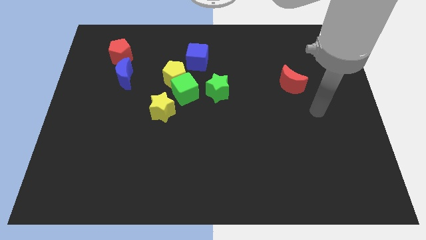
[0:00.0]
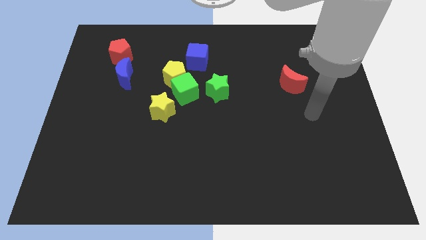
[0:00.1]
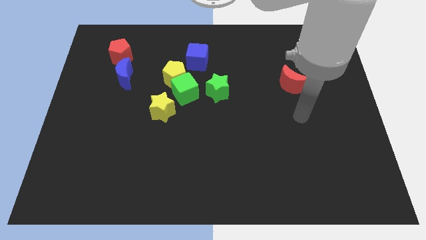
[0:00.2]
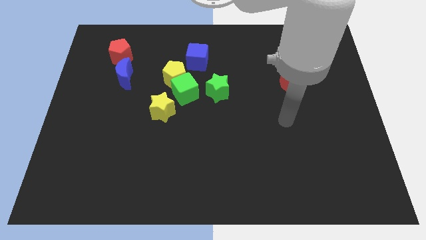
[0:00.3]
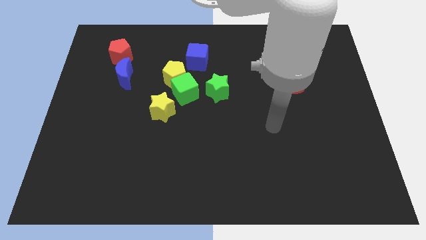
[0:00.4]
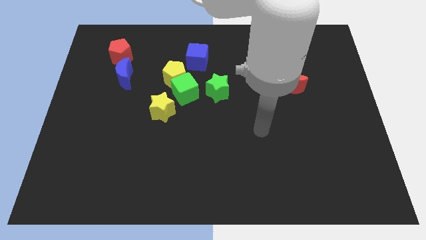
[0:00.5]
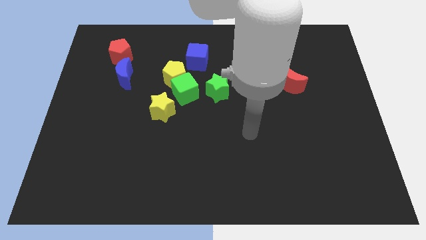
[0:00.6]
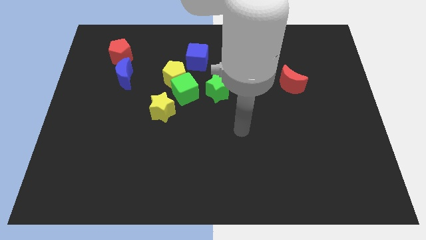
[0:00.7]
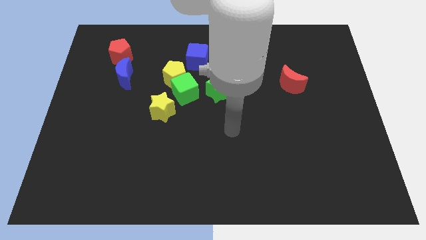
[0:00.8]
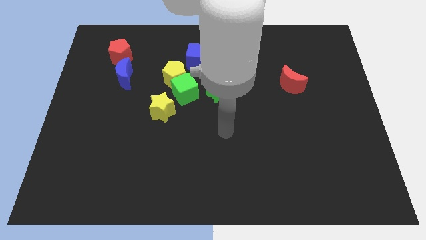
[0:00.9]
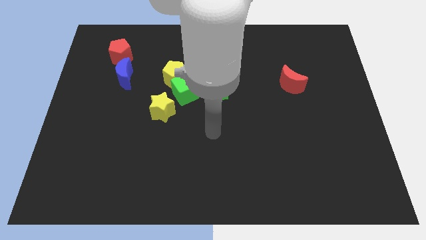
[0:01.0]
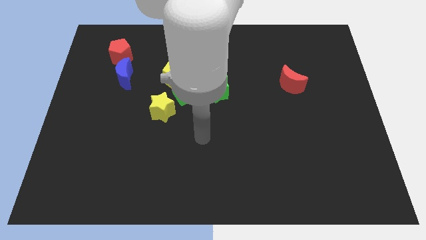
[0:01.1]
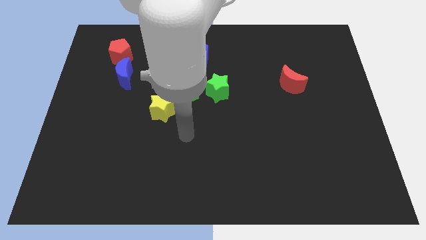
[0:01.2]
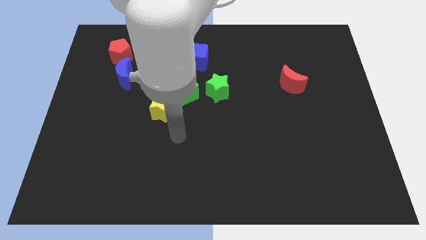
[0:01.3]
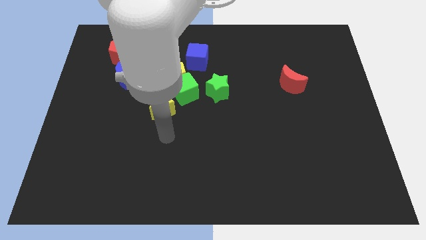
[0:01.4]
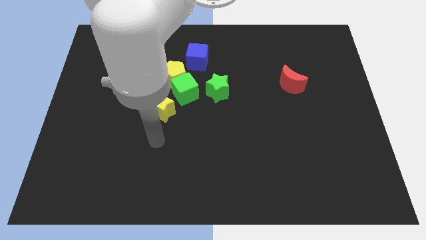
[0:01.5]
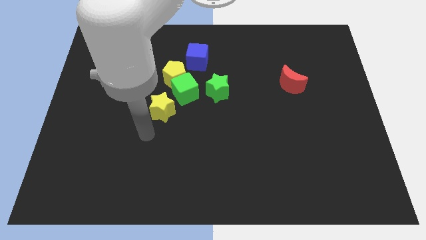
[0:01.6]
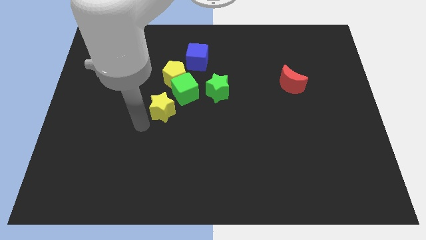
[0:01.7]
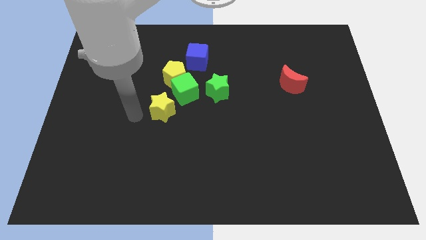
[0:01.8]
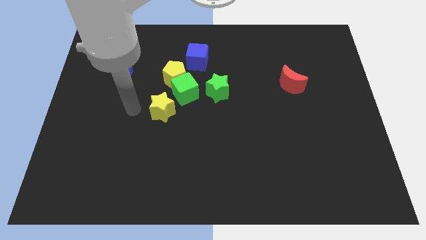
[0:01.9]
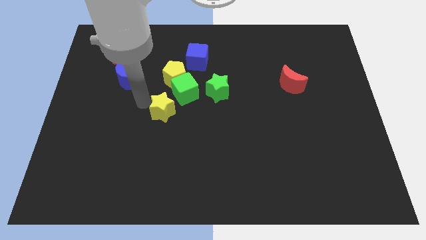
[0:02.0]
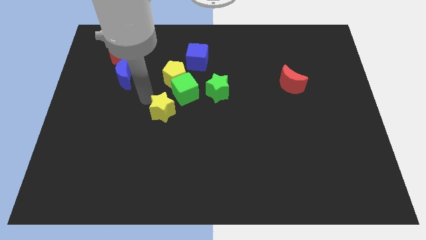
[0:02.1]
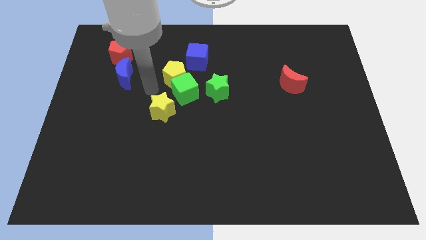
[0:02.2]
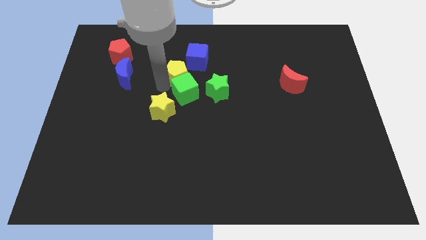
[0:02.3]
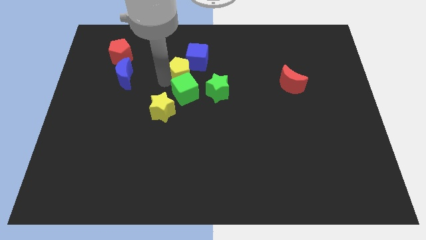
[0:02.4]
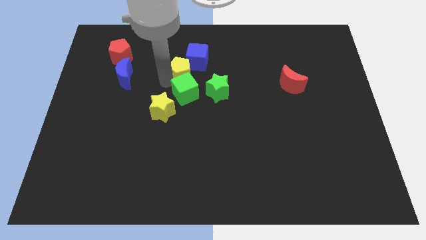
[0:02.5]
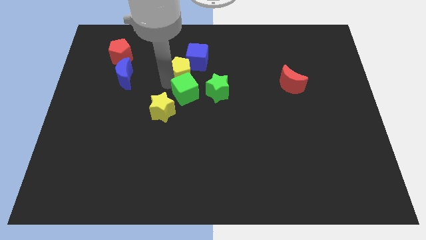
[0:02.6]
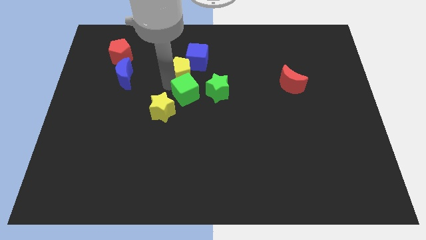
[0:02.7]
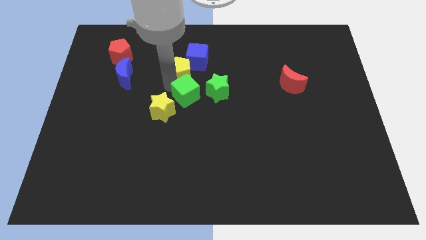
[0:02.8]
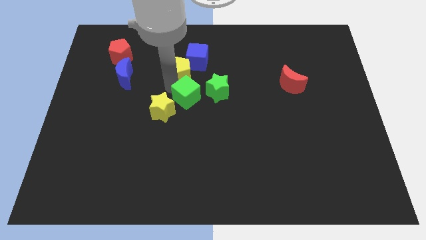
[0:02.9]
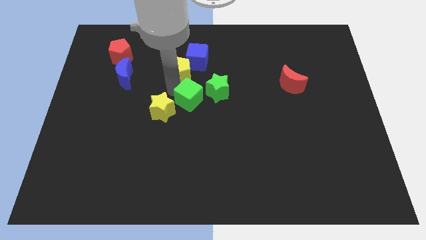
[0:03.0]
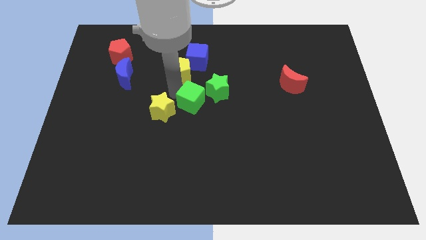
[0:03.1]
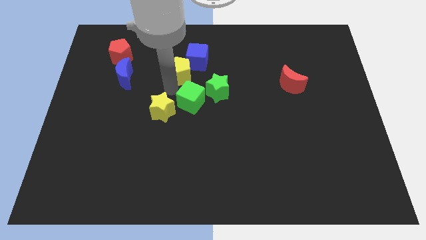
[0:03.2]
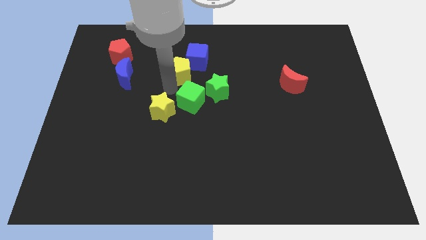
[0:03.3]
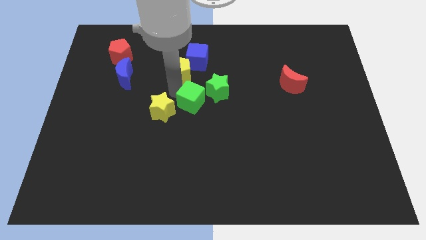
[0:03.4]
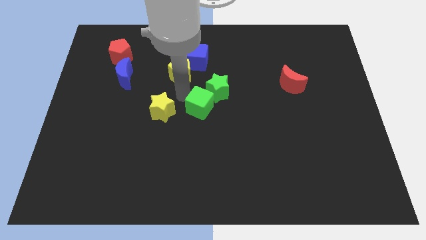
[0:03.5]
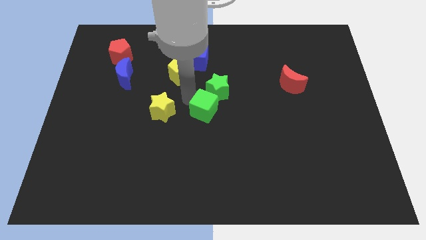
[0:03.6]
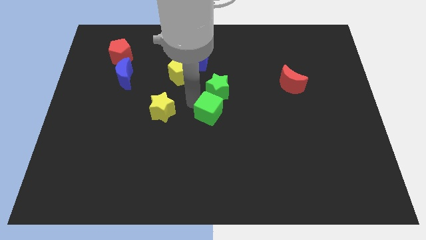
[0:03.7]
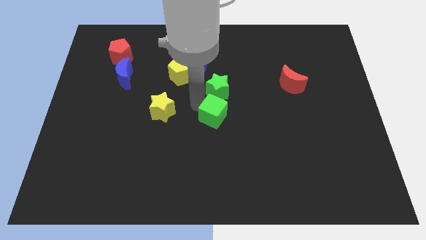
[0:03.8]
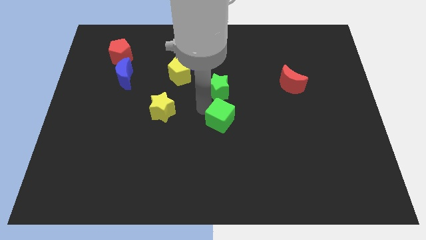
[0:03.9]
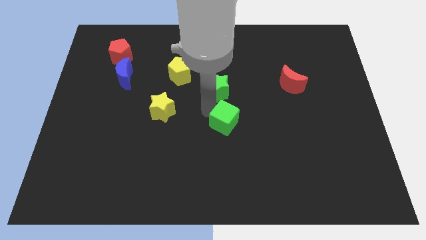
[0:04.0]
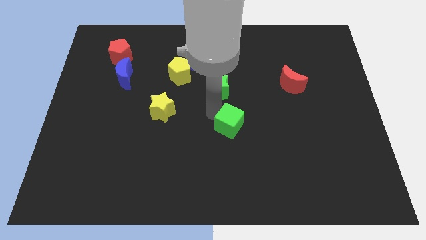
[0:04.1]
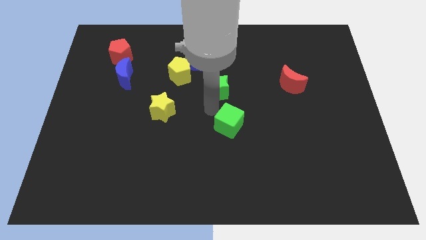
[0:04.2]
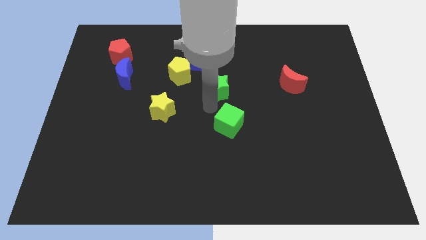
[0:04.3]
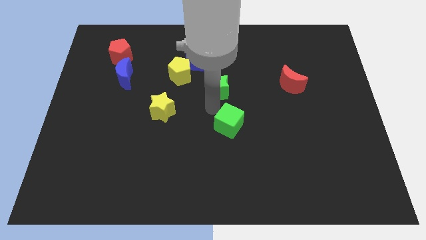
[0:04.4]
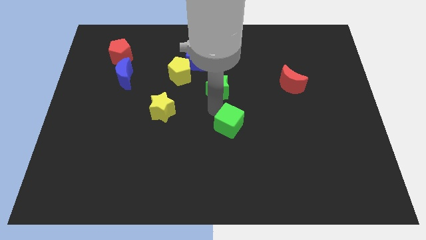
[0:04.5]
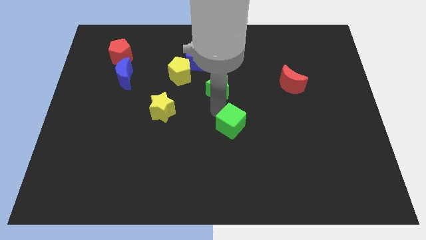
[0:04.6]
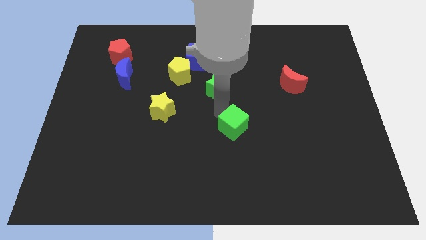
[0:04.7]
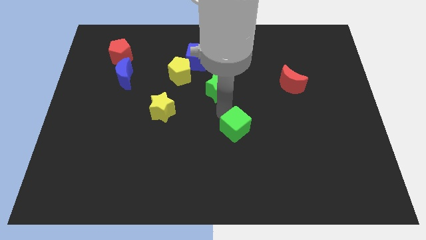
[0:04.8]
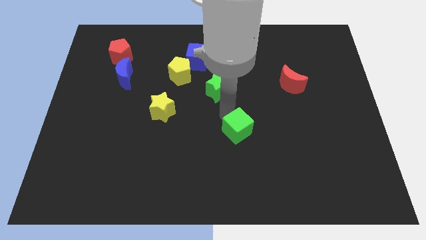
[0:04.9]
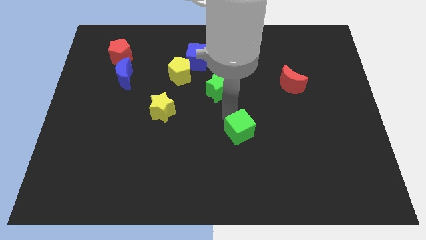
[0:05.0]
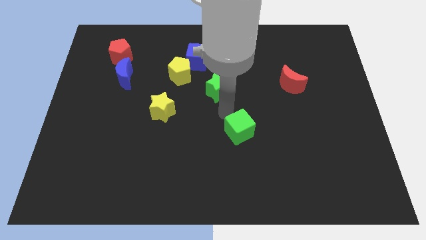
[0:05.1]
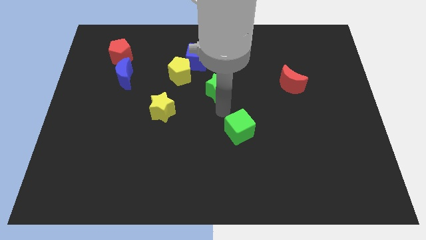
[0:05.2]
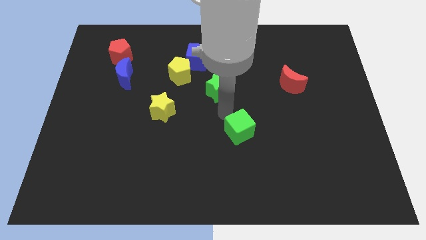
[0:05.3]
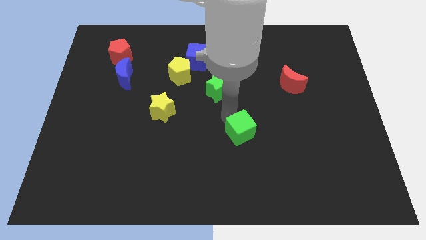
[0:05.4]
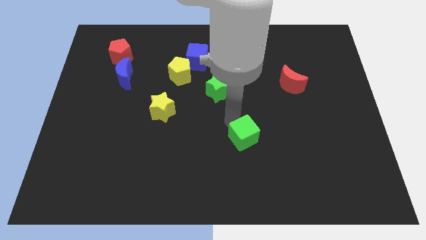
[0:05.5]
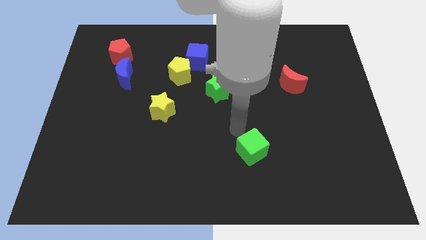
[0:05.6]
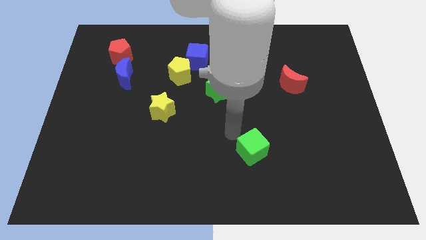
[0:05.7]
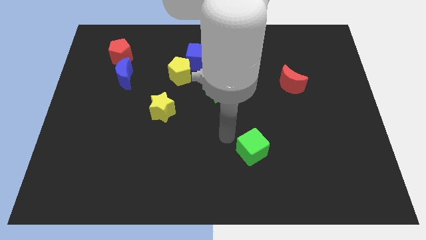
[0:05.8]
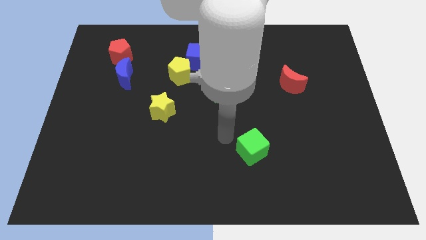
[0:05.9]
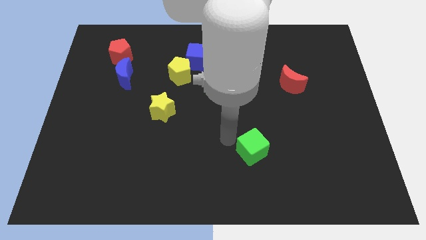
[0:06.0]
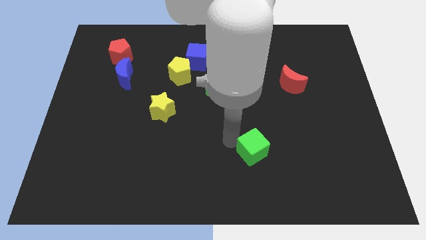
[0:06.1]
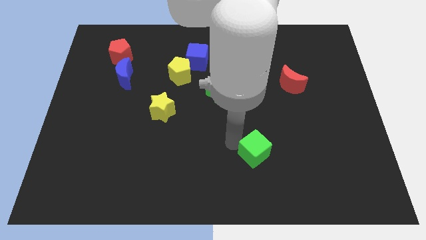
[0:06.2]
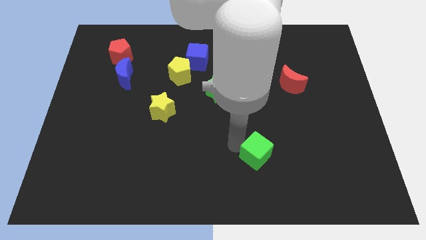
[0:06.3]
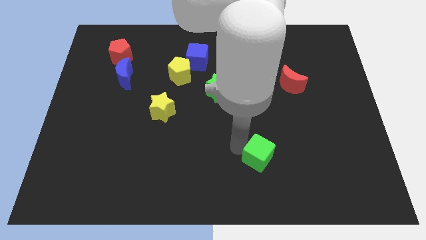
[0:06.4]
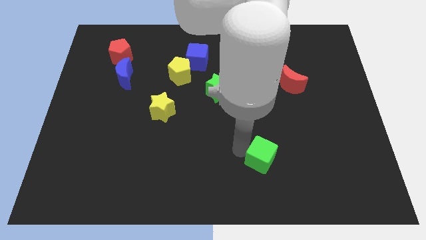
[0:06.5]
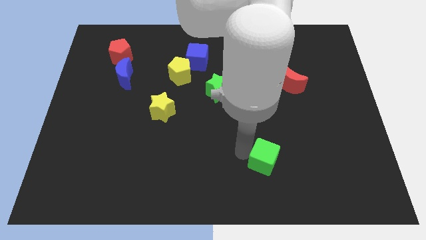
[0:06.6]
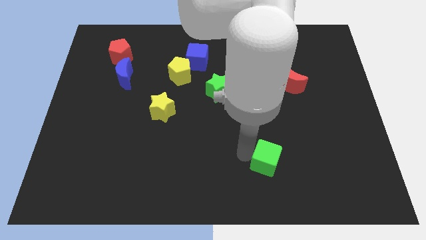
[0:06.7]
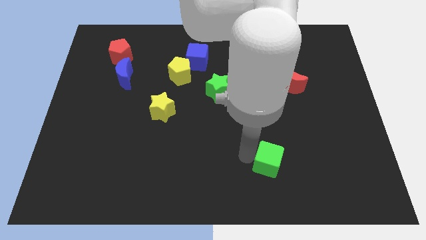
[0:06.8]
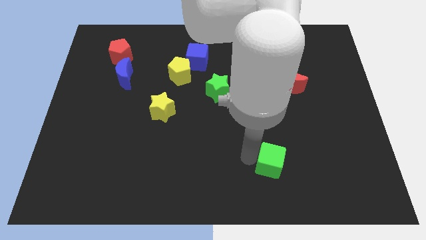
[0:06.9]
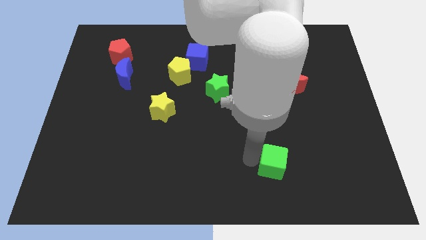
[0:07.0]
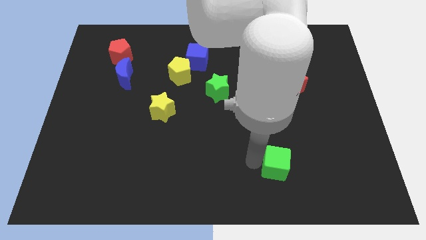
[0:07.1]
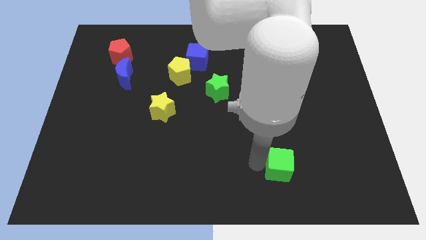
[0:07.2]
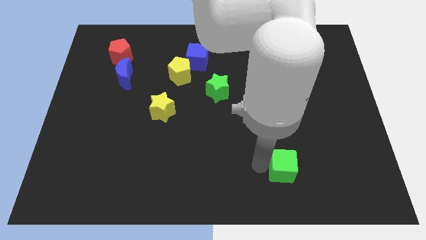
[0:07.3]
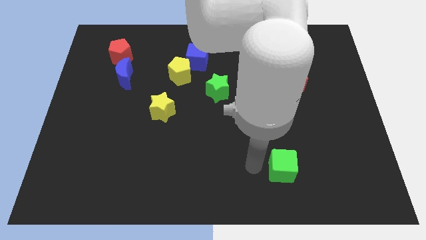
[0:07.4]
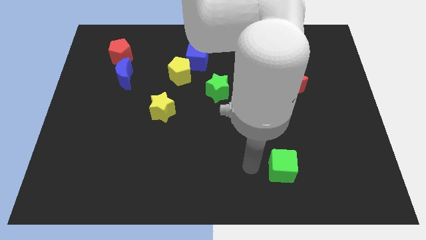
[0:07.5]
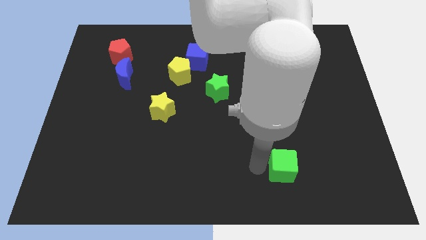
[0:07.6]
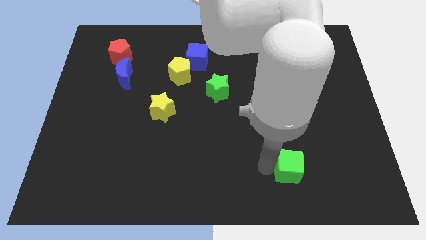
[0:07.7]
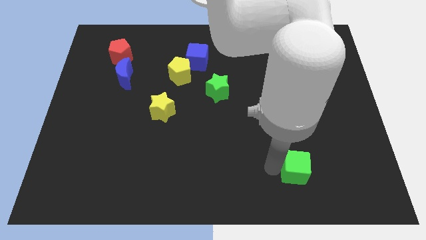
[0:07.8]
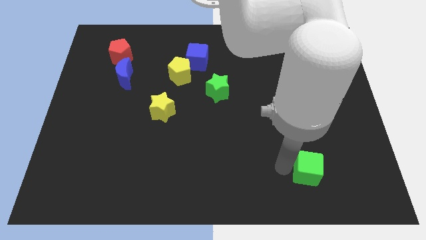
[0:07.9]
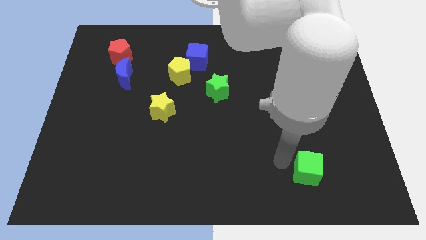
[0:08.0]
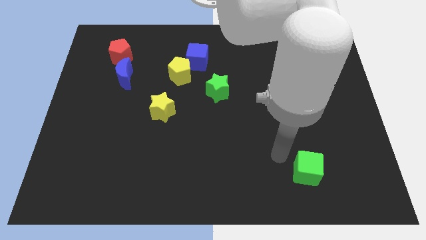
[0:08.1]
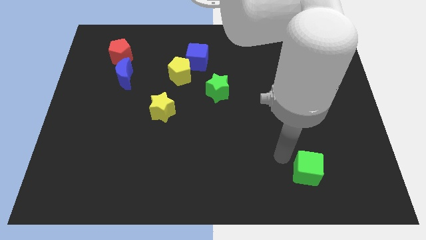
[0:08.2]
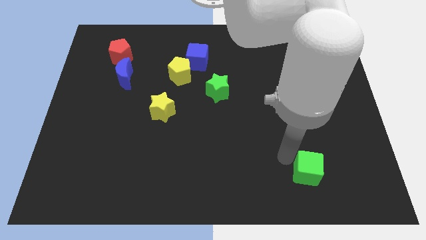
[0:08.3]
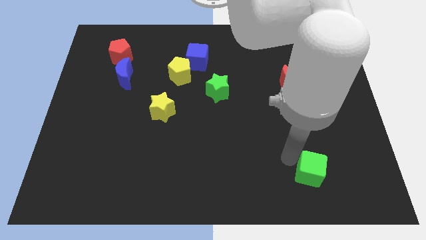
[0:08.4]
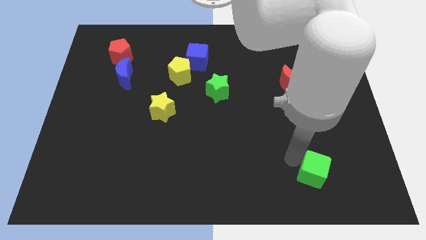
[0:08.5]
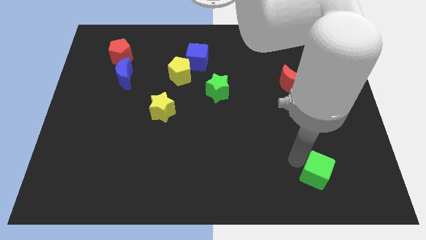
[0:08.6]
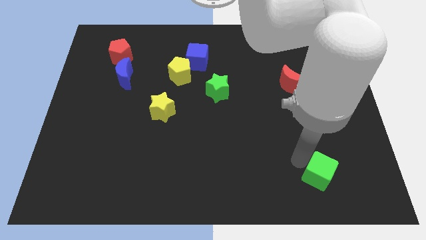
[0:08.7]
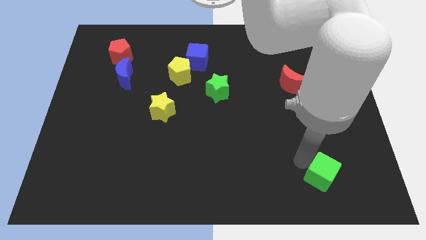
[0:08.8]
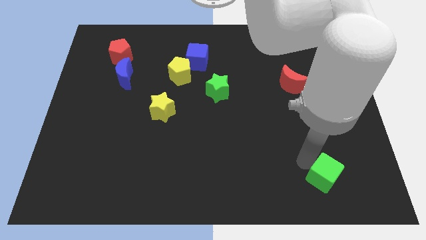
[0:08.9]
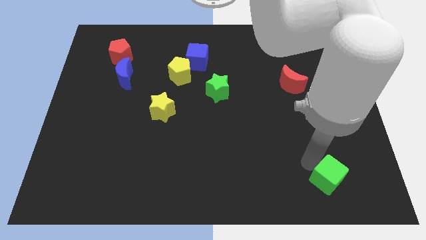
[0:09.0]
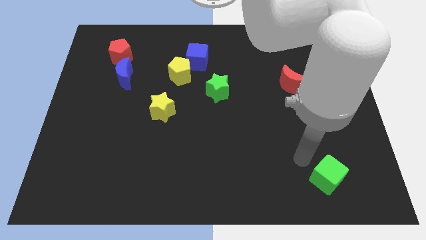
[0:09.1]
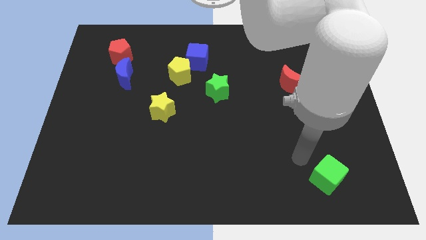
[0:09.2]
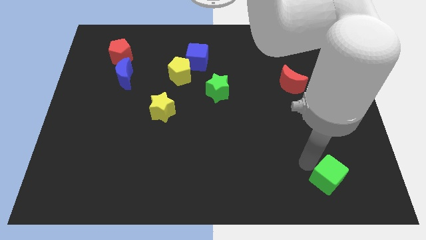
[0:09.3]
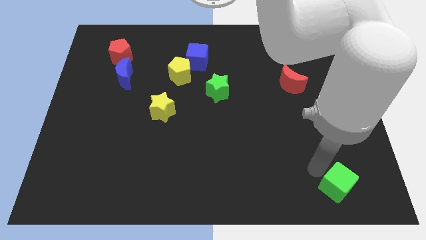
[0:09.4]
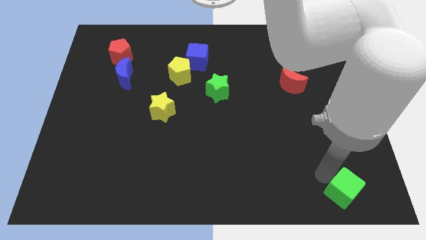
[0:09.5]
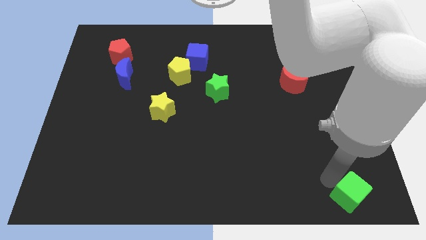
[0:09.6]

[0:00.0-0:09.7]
move the green cube to the bottom right of the board
